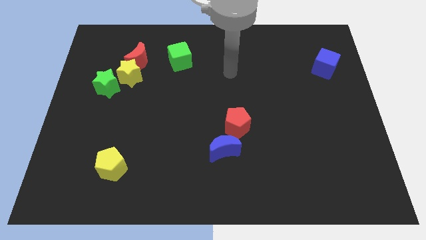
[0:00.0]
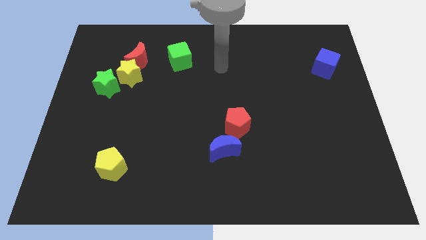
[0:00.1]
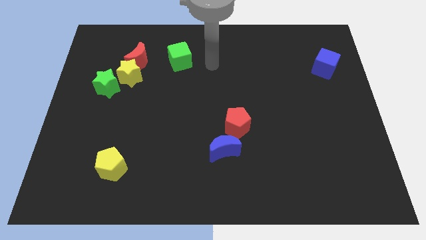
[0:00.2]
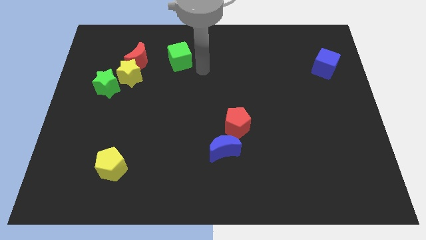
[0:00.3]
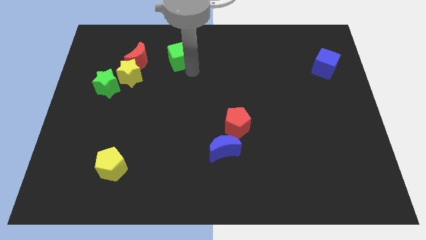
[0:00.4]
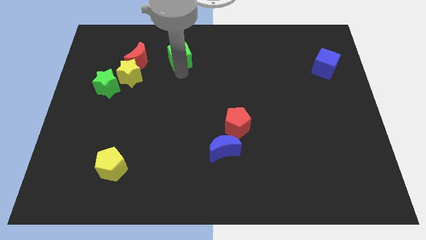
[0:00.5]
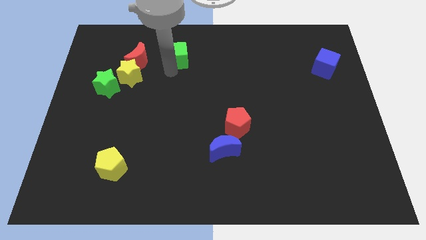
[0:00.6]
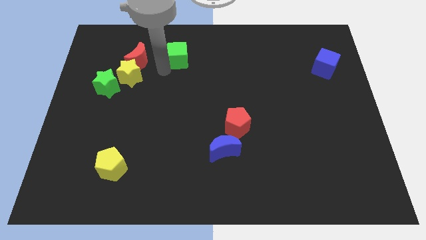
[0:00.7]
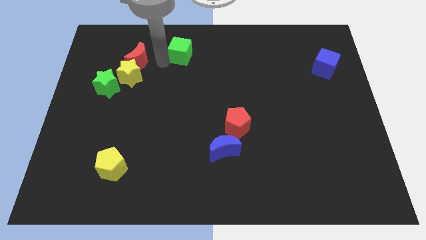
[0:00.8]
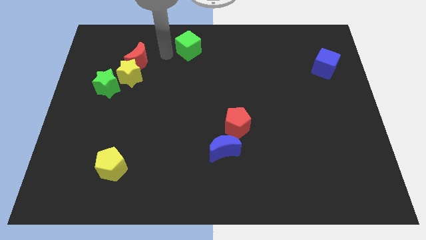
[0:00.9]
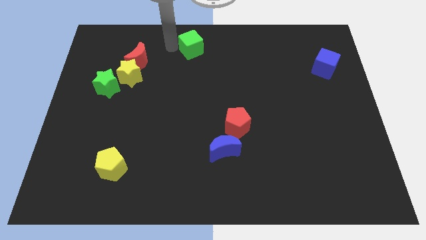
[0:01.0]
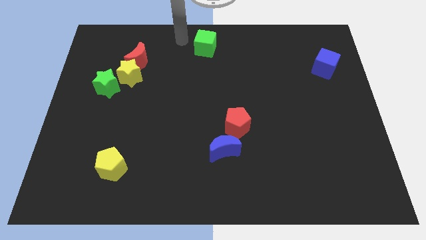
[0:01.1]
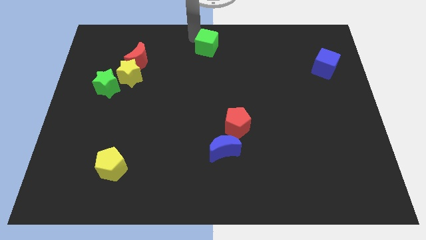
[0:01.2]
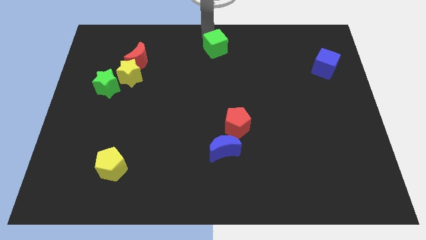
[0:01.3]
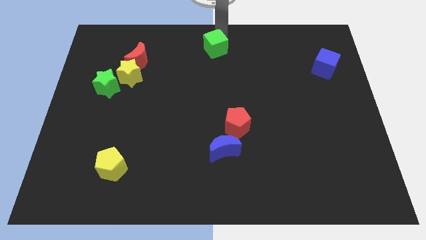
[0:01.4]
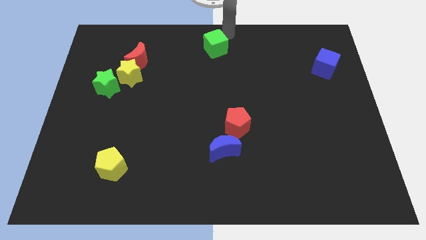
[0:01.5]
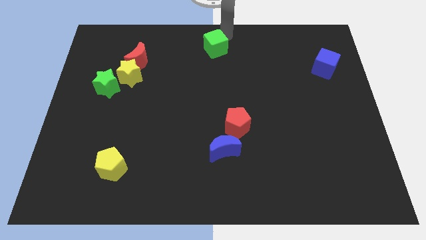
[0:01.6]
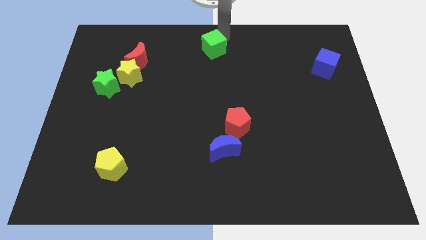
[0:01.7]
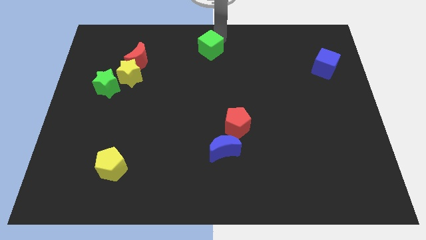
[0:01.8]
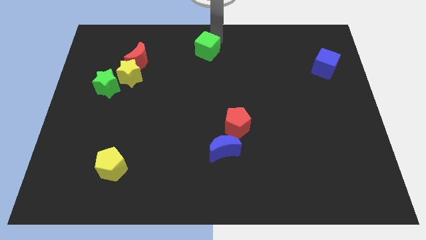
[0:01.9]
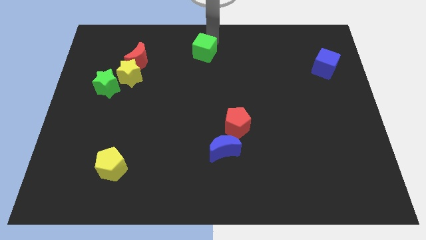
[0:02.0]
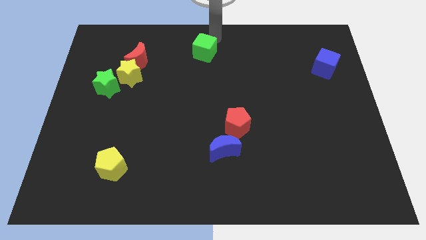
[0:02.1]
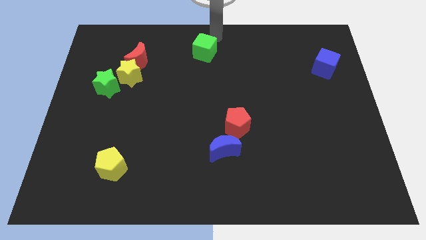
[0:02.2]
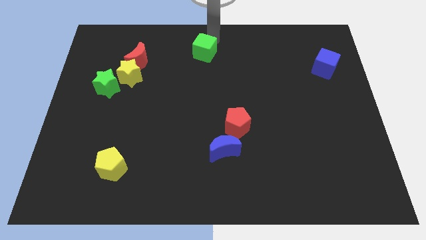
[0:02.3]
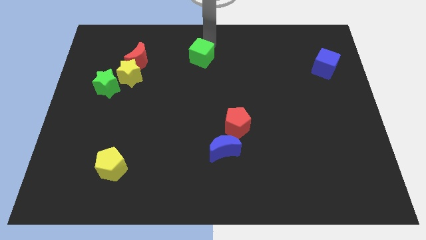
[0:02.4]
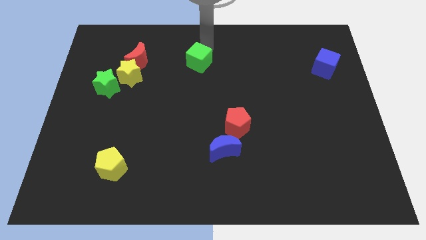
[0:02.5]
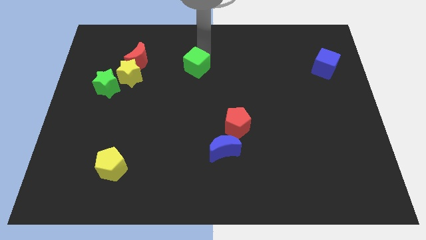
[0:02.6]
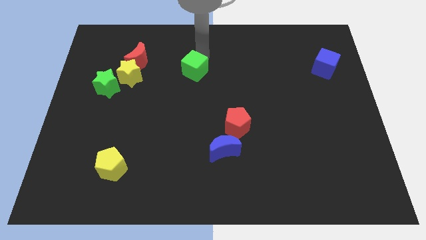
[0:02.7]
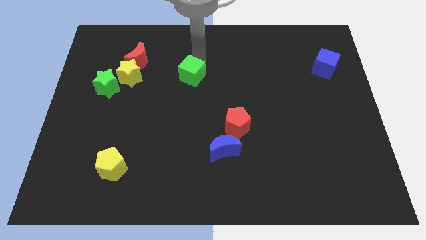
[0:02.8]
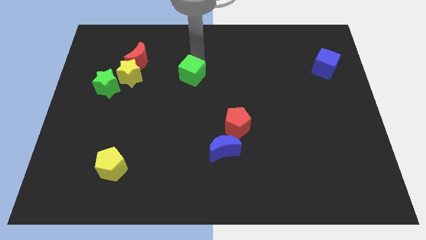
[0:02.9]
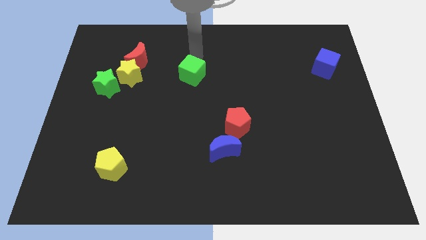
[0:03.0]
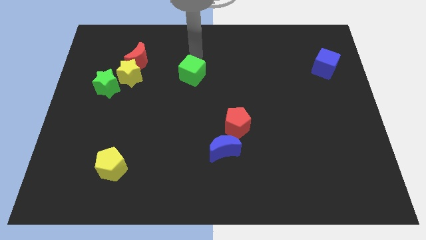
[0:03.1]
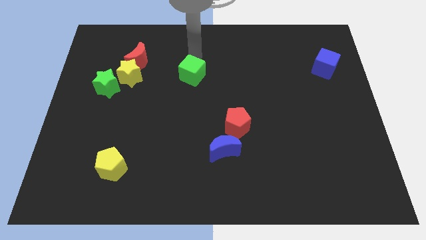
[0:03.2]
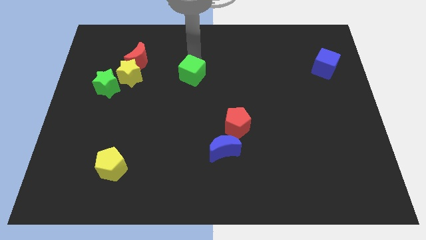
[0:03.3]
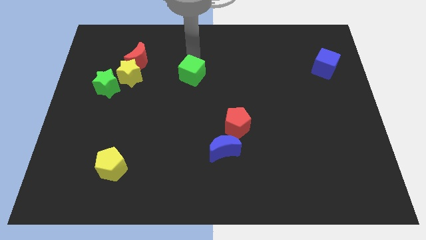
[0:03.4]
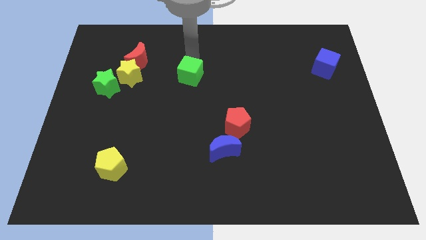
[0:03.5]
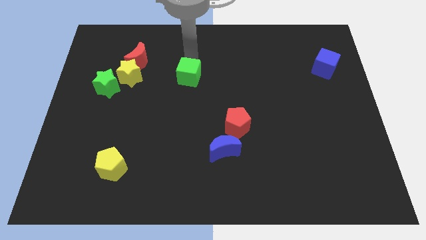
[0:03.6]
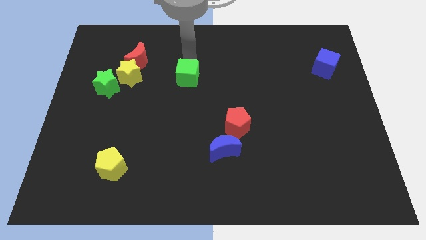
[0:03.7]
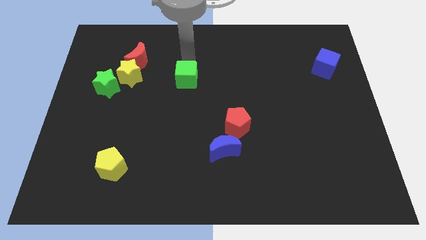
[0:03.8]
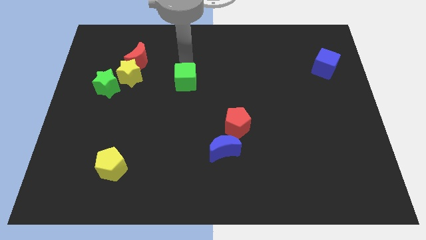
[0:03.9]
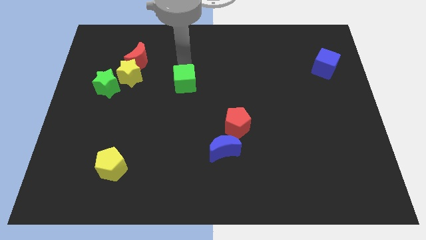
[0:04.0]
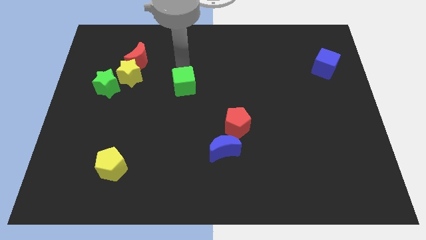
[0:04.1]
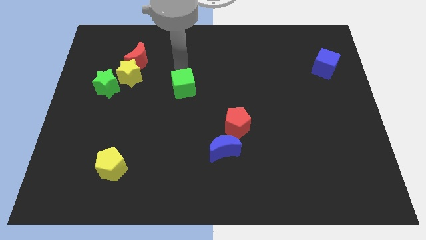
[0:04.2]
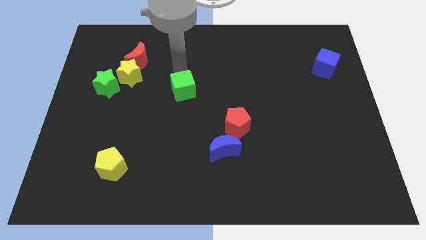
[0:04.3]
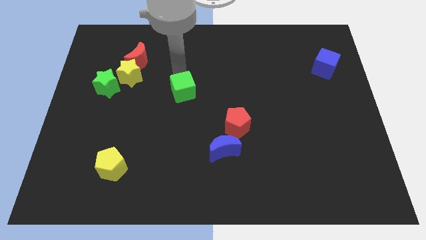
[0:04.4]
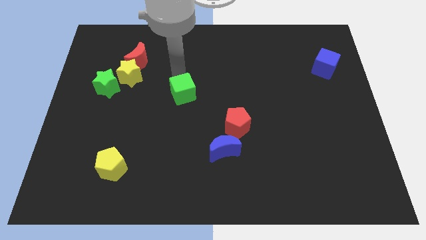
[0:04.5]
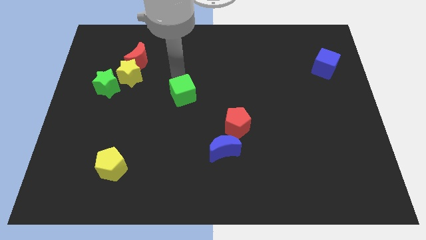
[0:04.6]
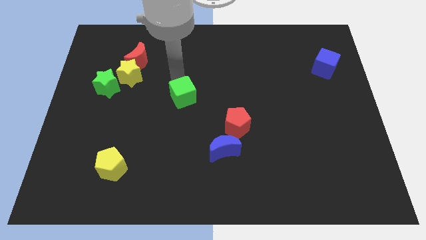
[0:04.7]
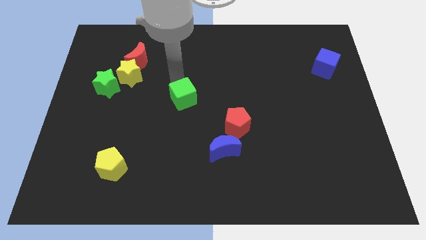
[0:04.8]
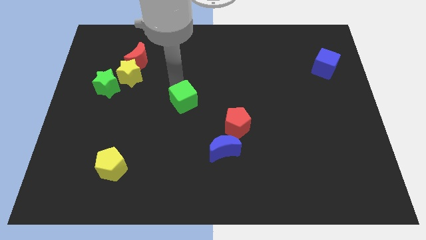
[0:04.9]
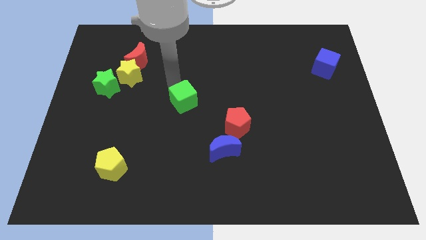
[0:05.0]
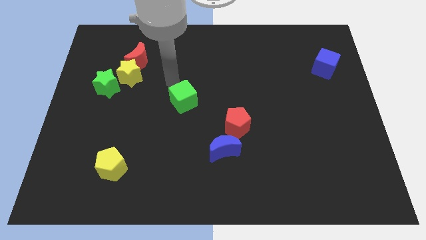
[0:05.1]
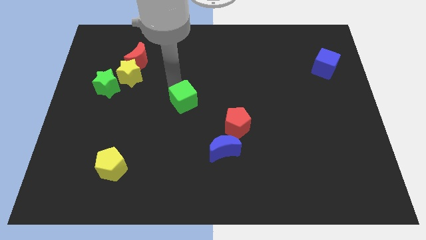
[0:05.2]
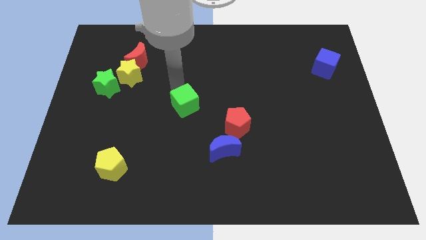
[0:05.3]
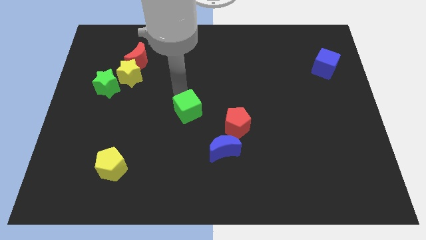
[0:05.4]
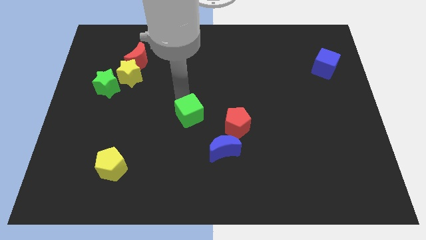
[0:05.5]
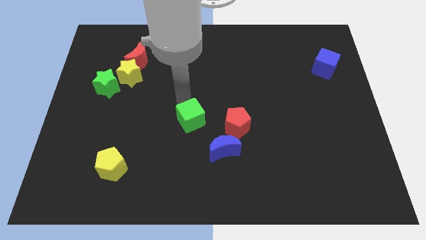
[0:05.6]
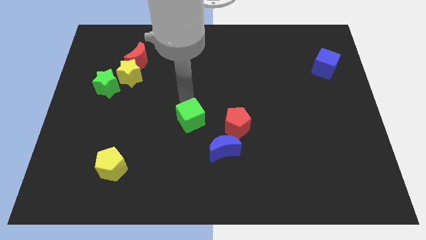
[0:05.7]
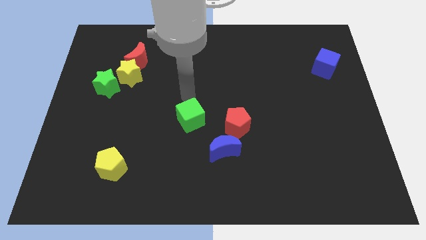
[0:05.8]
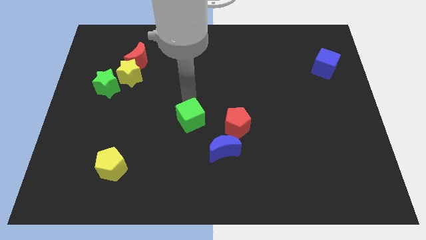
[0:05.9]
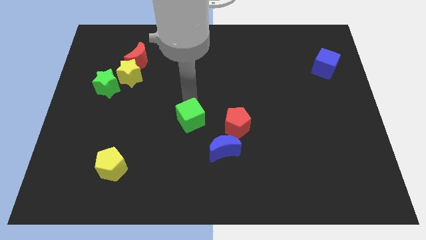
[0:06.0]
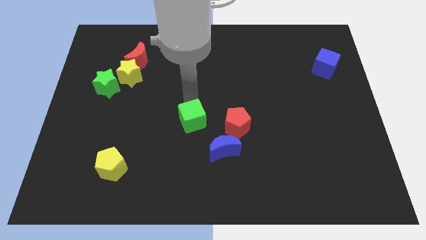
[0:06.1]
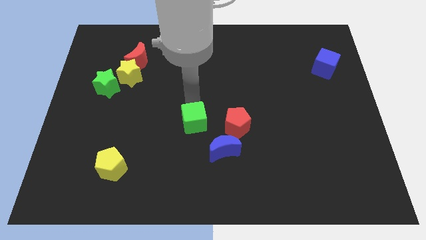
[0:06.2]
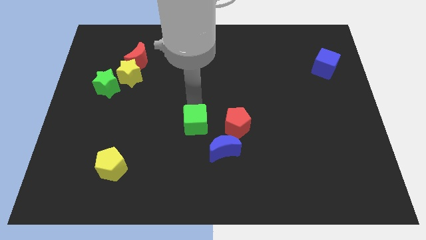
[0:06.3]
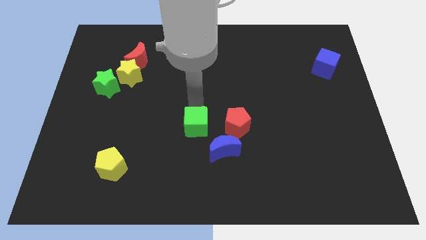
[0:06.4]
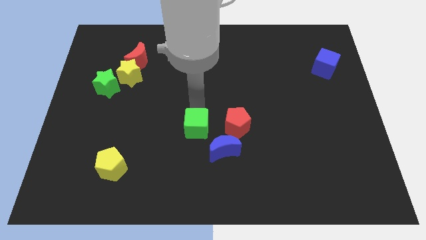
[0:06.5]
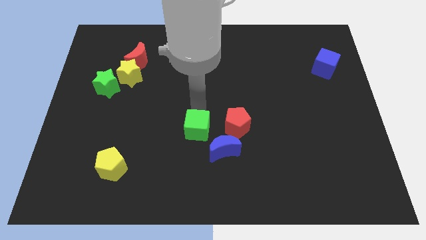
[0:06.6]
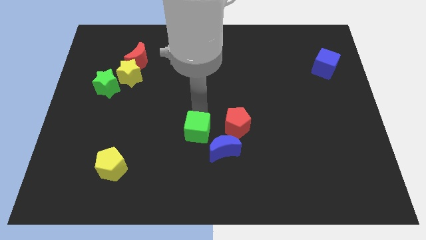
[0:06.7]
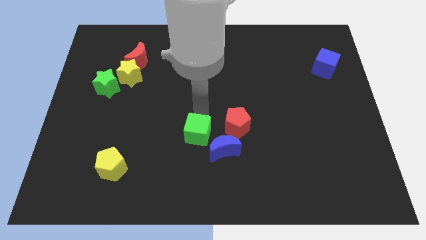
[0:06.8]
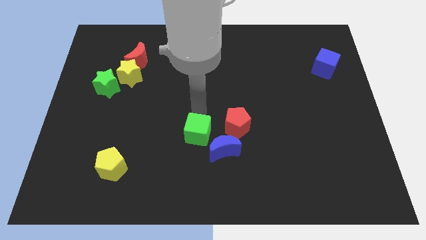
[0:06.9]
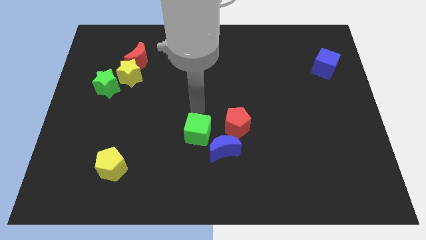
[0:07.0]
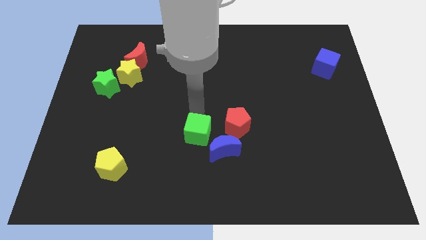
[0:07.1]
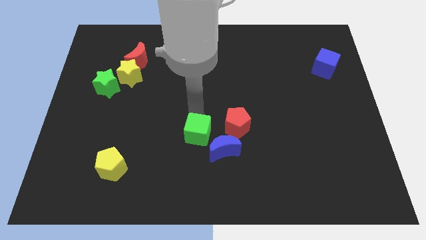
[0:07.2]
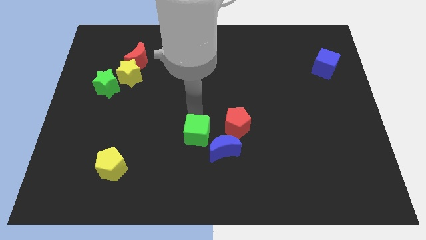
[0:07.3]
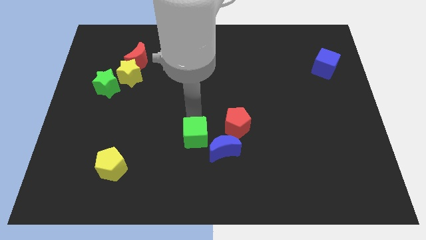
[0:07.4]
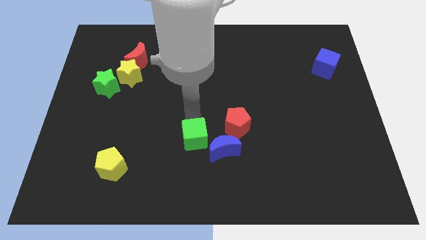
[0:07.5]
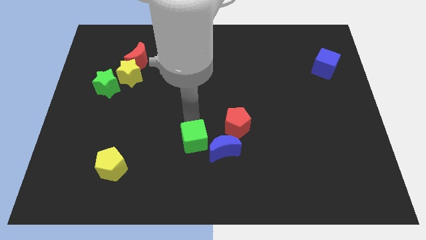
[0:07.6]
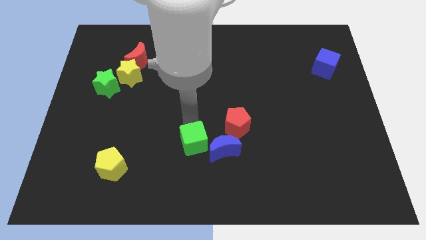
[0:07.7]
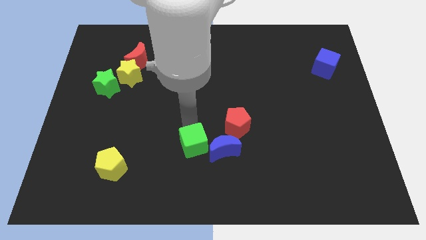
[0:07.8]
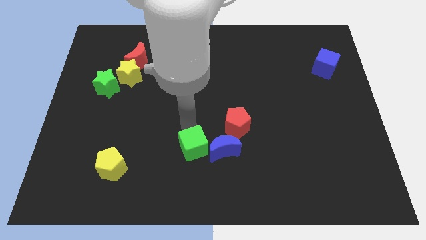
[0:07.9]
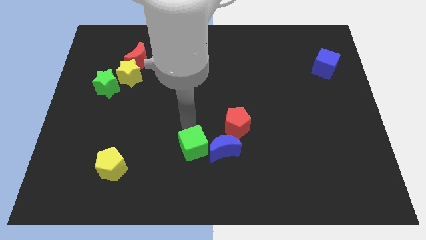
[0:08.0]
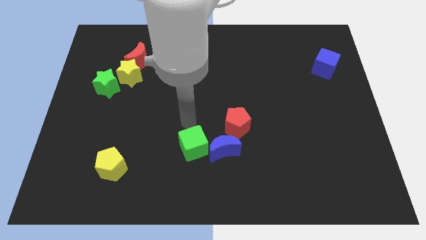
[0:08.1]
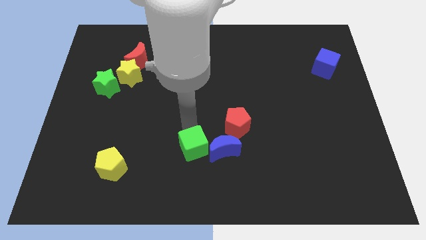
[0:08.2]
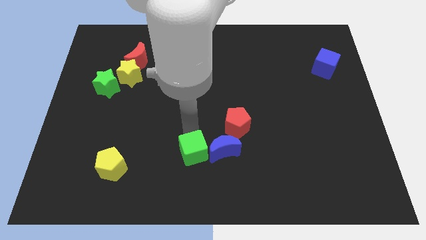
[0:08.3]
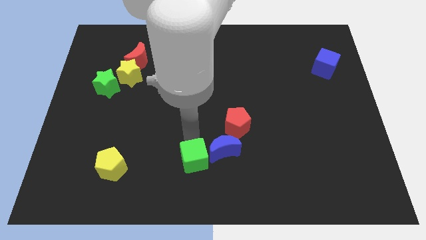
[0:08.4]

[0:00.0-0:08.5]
slide the green cube to the bottom
